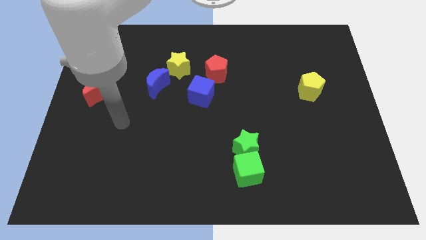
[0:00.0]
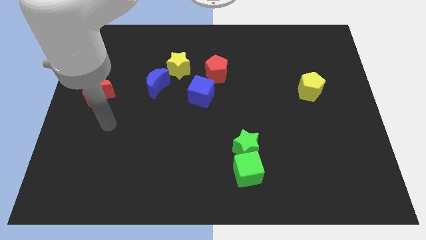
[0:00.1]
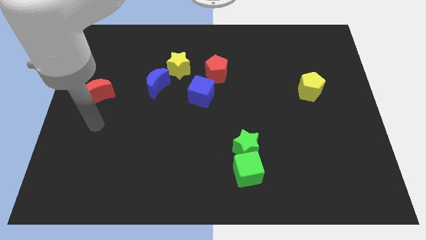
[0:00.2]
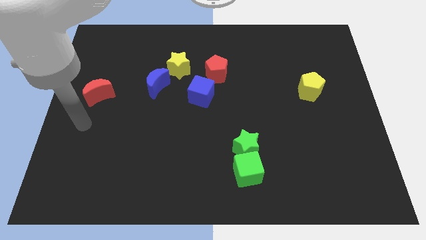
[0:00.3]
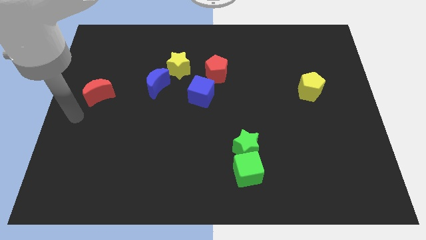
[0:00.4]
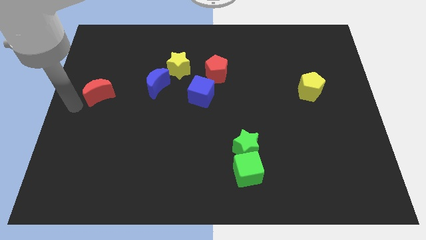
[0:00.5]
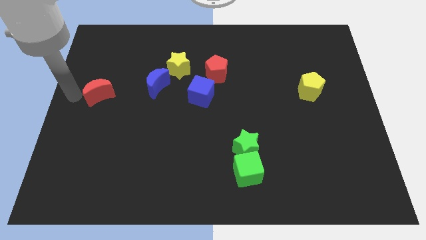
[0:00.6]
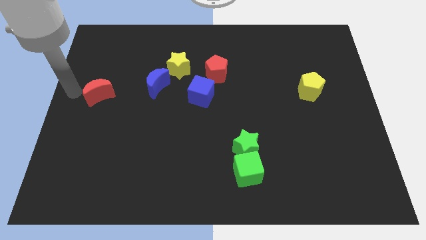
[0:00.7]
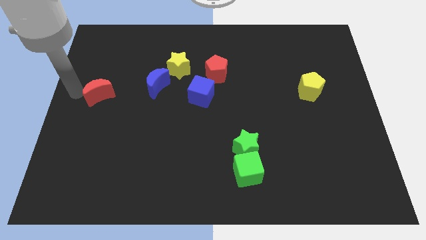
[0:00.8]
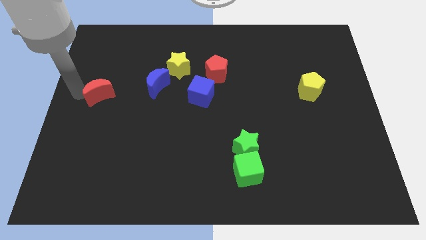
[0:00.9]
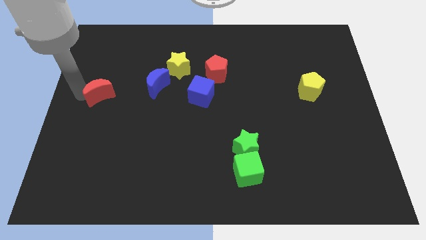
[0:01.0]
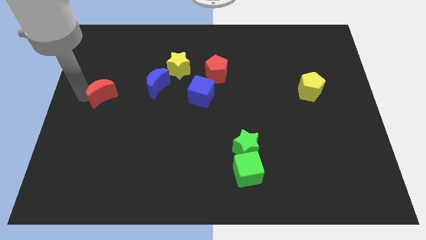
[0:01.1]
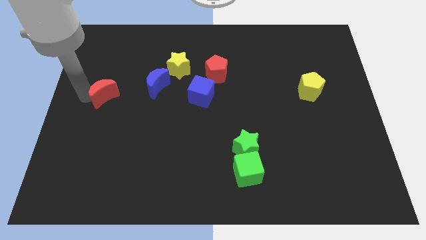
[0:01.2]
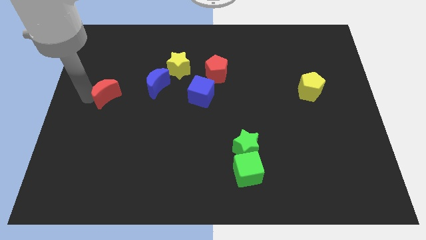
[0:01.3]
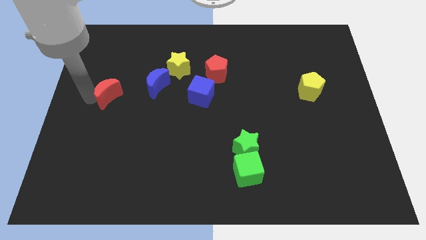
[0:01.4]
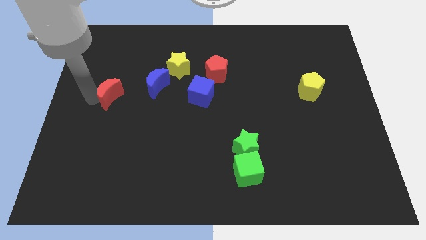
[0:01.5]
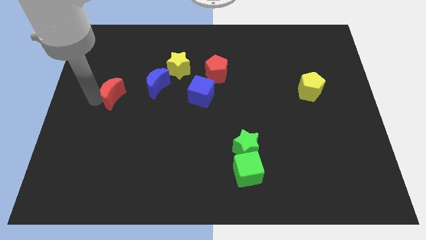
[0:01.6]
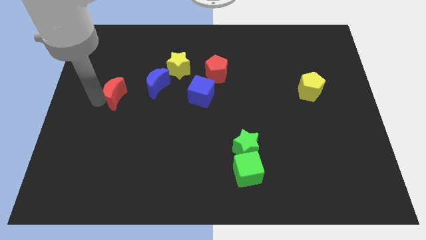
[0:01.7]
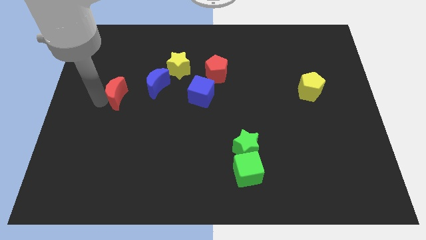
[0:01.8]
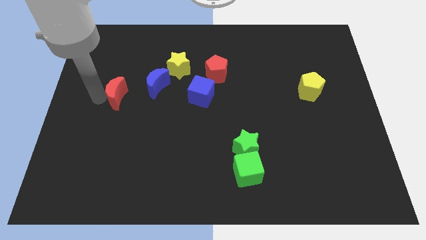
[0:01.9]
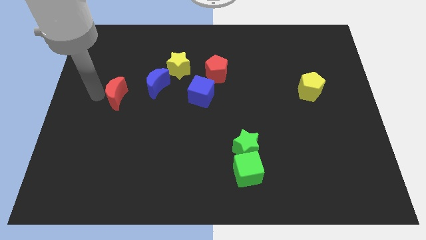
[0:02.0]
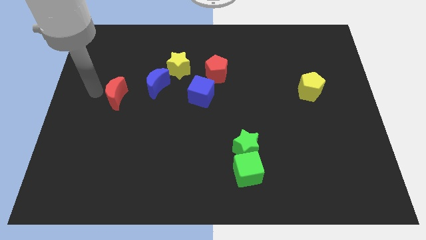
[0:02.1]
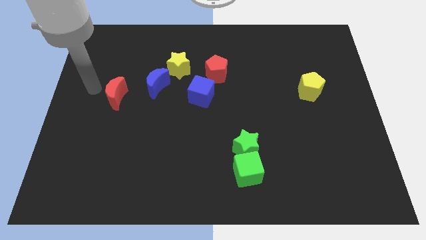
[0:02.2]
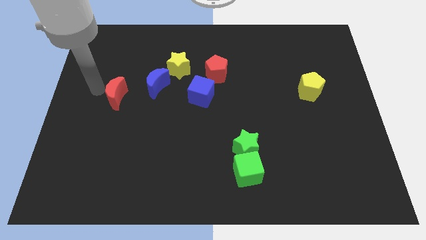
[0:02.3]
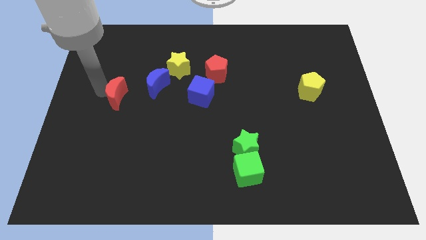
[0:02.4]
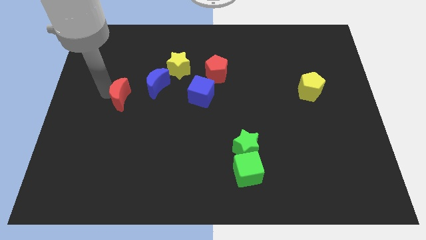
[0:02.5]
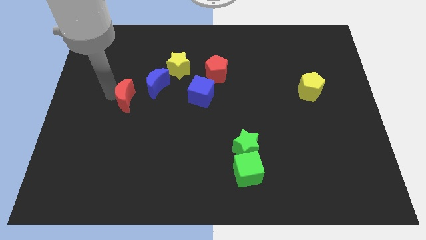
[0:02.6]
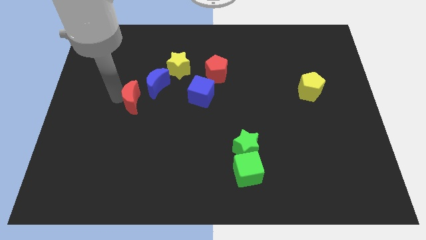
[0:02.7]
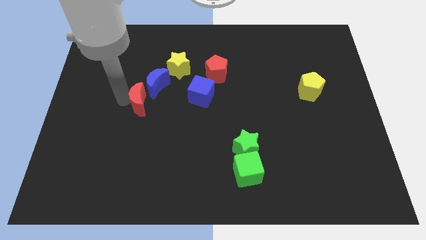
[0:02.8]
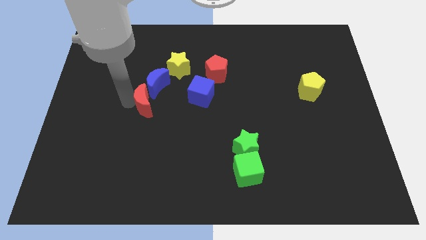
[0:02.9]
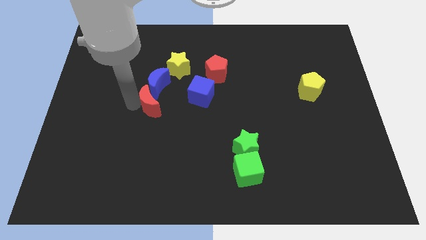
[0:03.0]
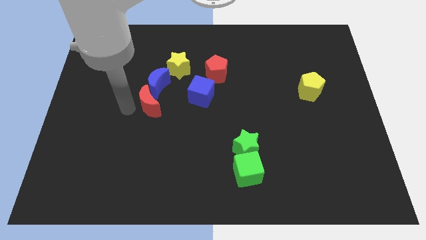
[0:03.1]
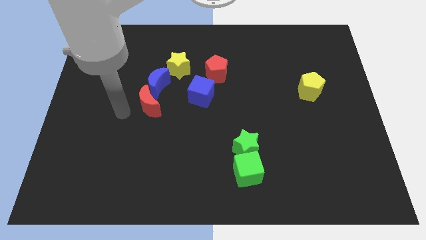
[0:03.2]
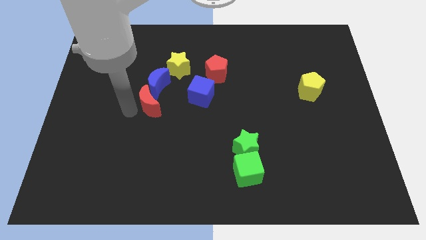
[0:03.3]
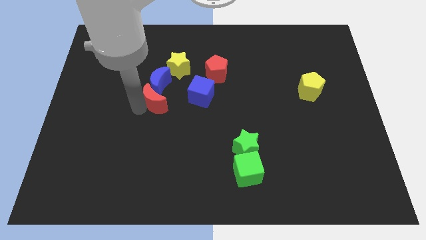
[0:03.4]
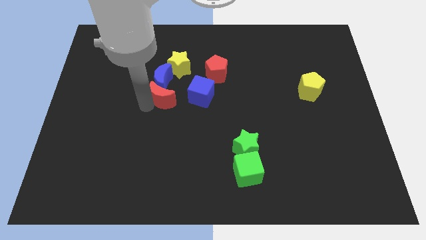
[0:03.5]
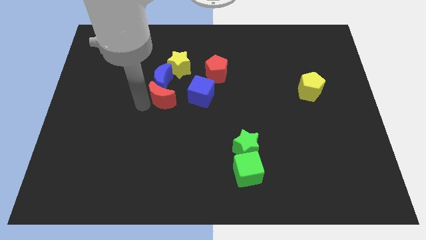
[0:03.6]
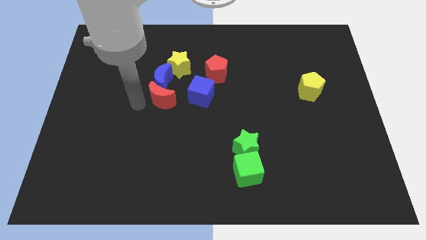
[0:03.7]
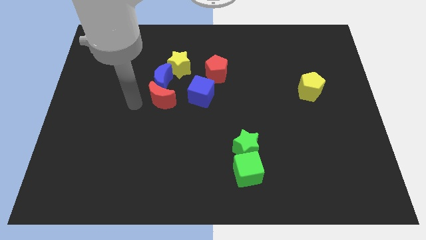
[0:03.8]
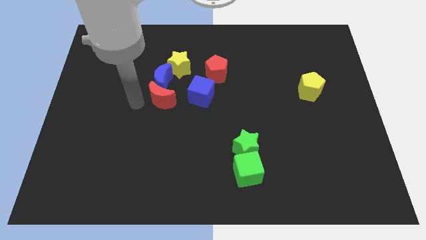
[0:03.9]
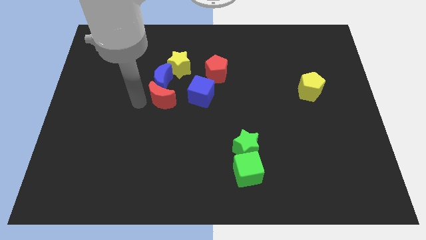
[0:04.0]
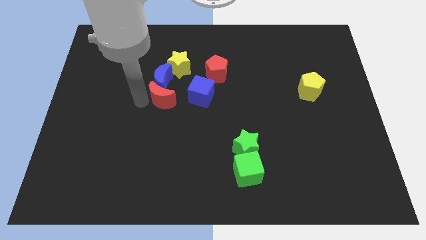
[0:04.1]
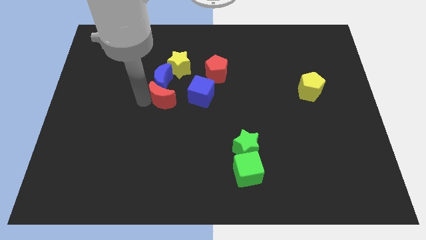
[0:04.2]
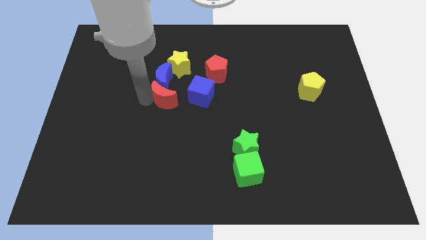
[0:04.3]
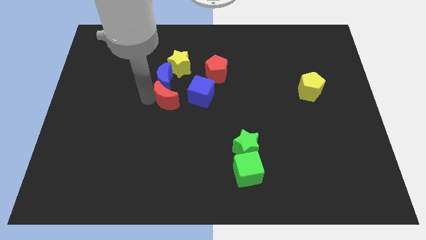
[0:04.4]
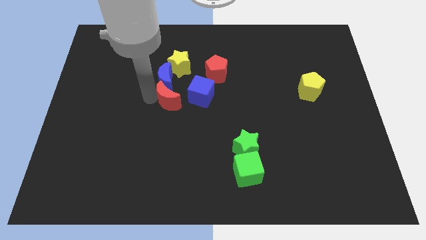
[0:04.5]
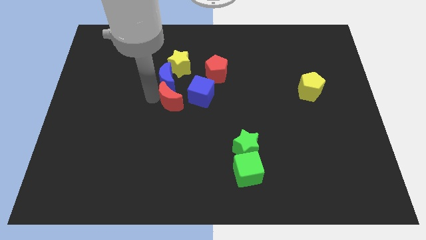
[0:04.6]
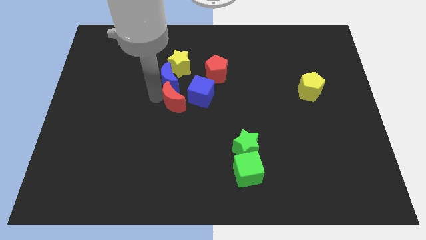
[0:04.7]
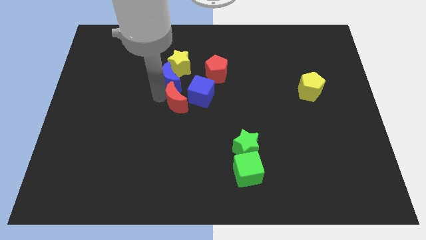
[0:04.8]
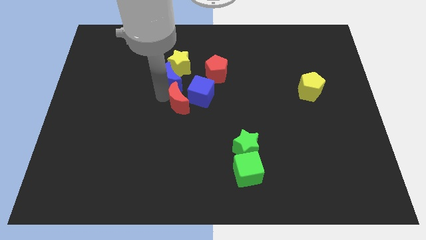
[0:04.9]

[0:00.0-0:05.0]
move the red moon next to the blue cube

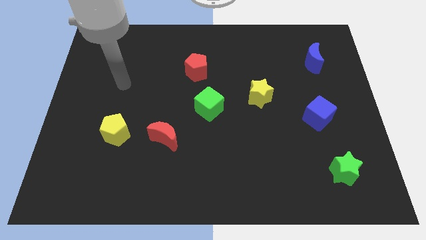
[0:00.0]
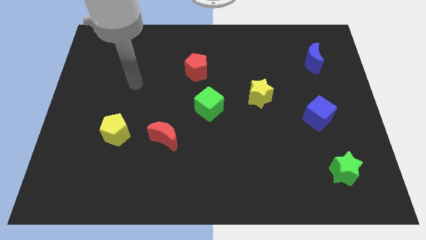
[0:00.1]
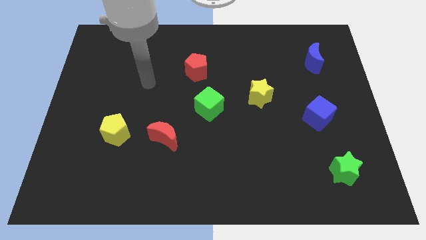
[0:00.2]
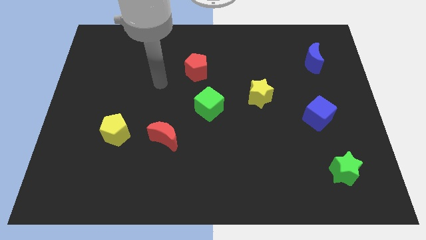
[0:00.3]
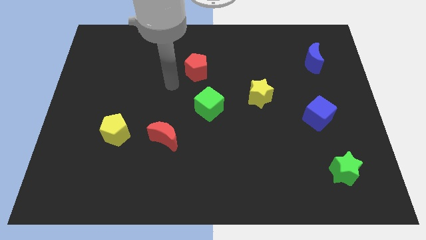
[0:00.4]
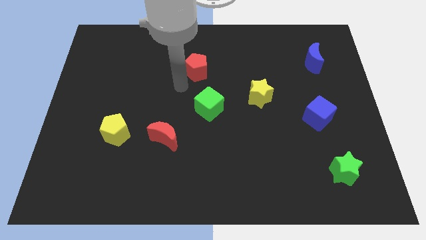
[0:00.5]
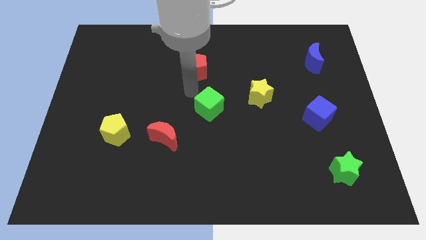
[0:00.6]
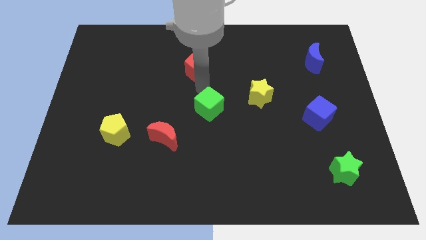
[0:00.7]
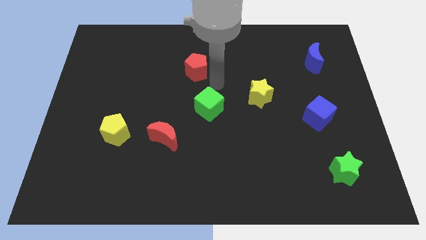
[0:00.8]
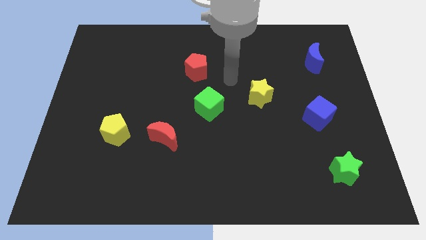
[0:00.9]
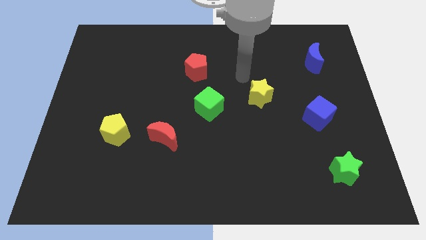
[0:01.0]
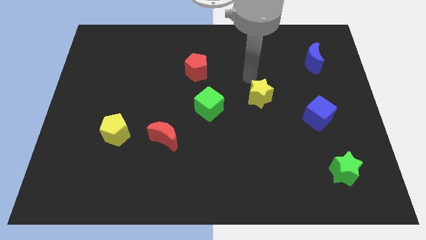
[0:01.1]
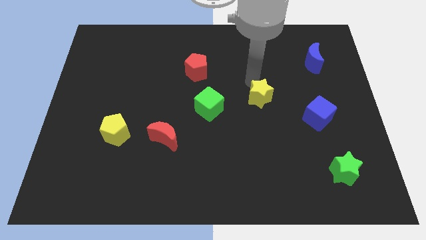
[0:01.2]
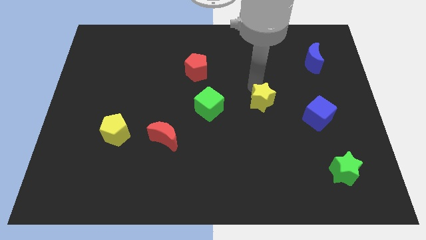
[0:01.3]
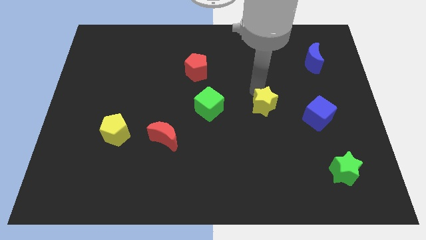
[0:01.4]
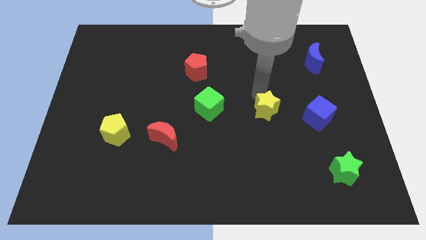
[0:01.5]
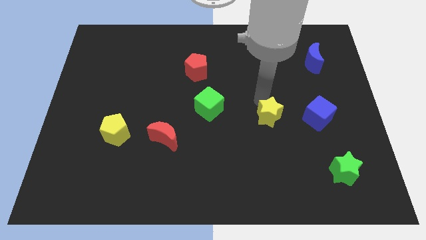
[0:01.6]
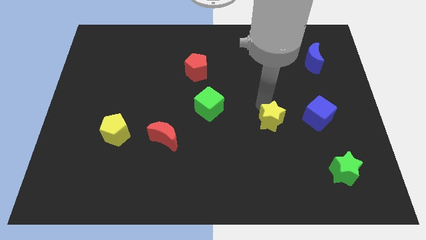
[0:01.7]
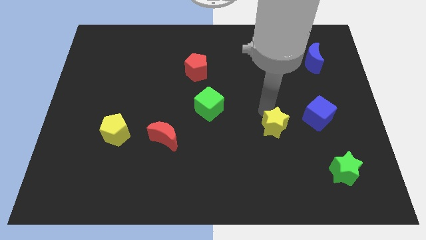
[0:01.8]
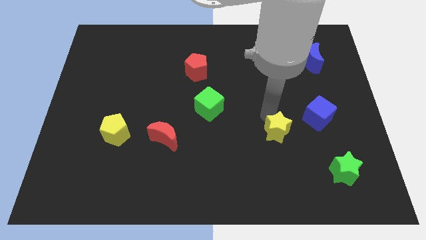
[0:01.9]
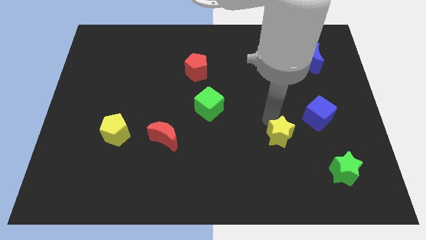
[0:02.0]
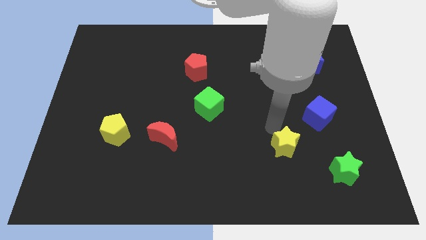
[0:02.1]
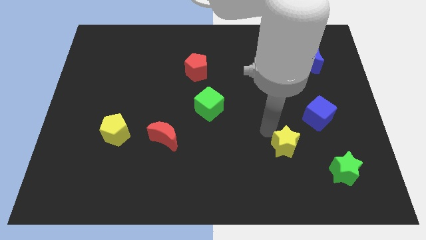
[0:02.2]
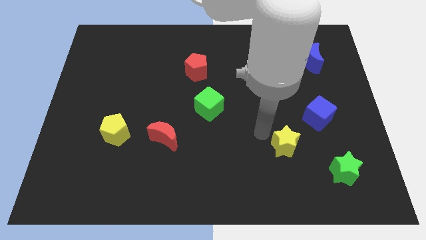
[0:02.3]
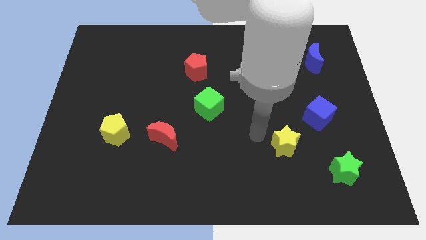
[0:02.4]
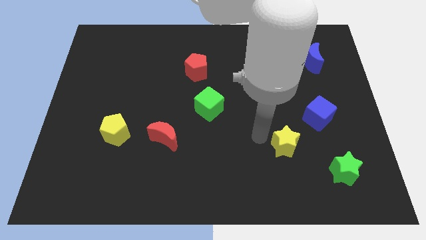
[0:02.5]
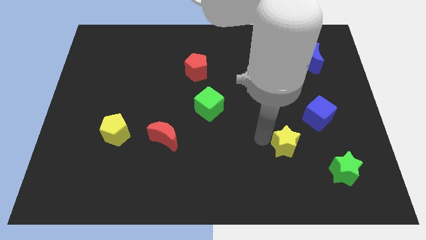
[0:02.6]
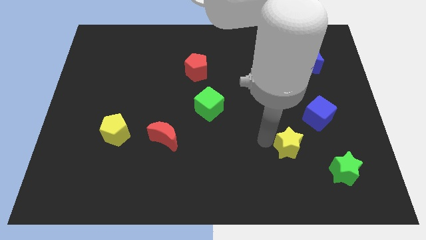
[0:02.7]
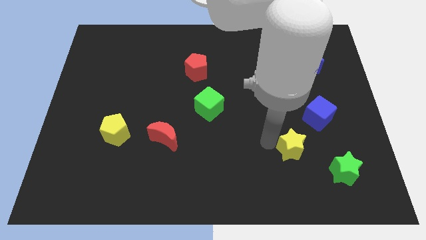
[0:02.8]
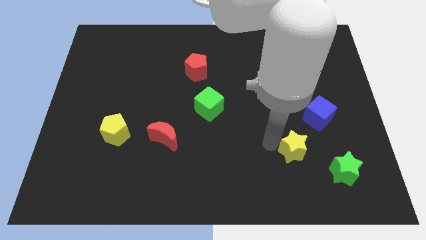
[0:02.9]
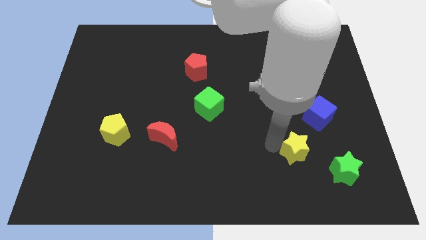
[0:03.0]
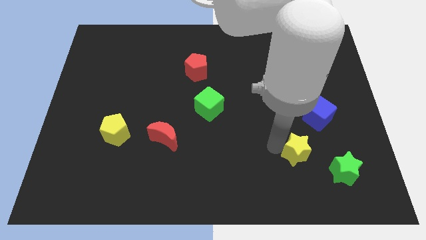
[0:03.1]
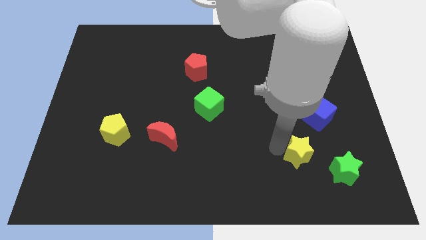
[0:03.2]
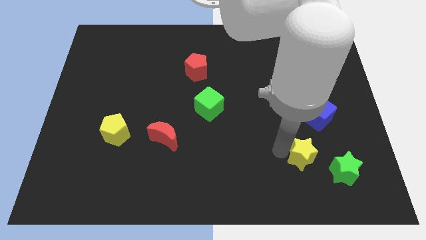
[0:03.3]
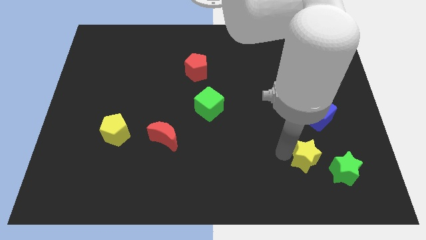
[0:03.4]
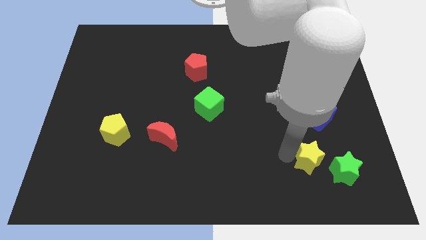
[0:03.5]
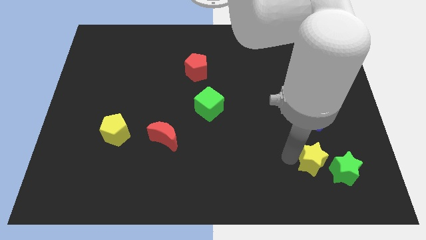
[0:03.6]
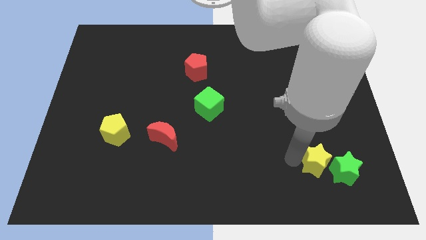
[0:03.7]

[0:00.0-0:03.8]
move the yellow star towards the green star
